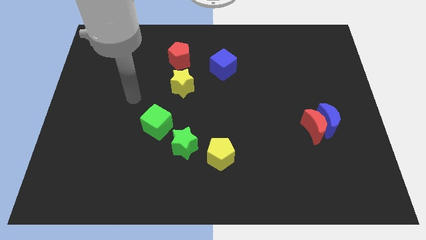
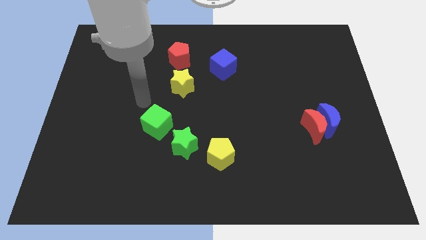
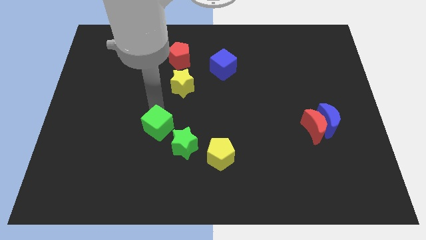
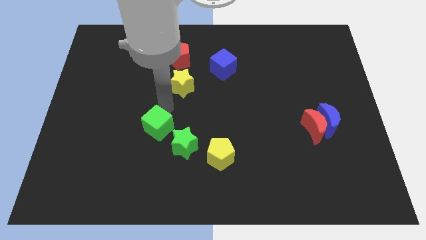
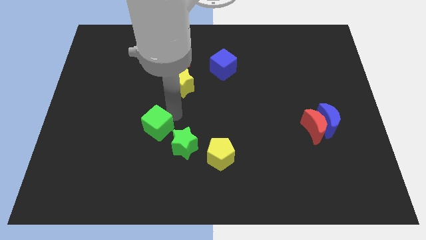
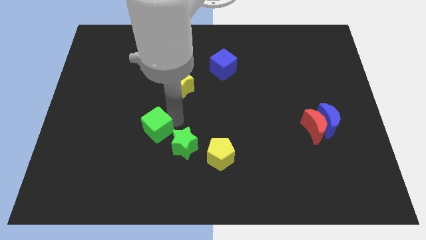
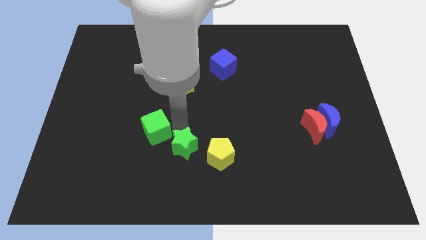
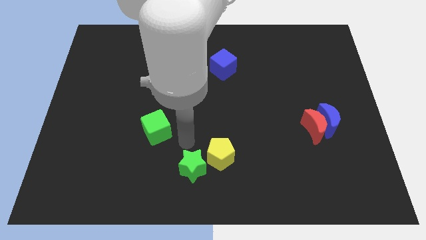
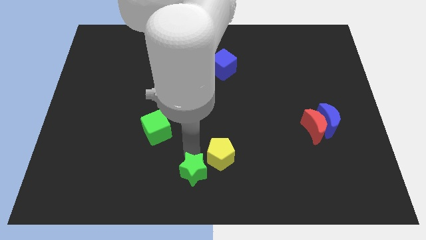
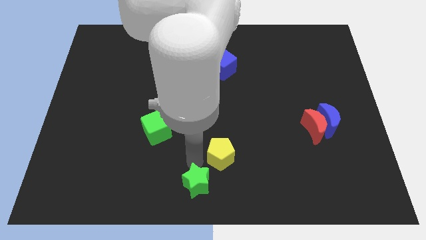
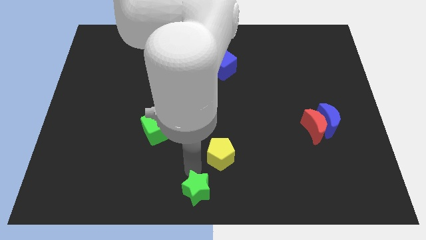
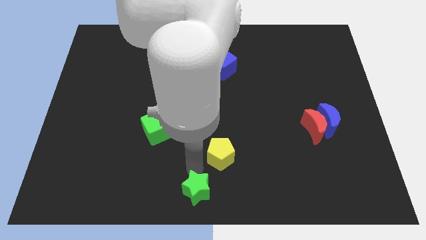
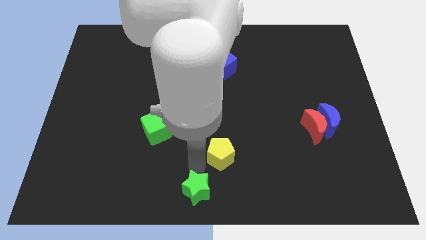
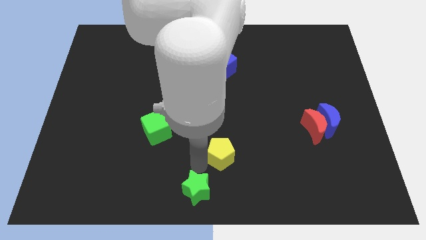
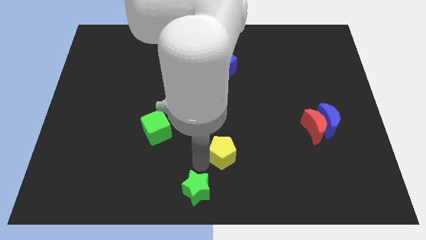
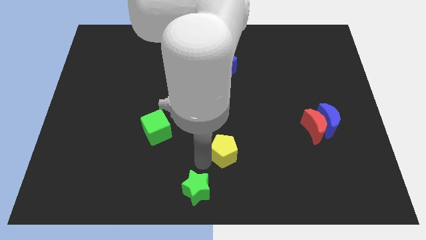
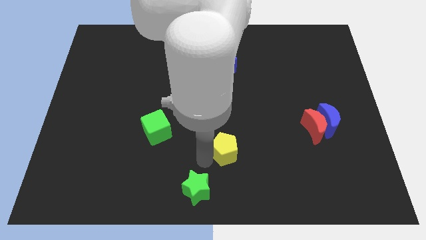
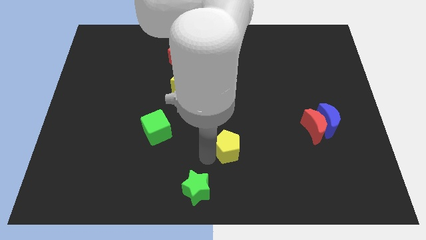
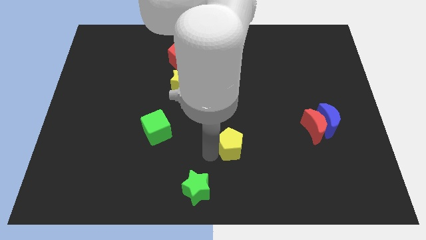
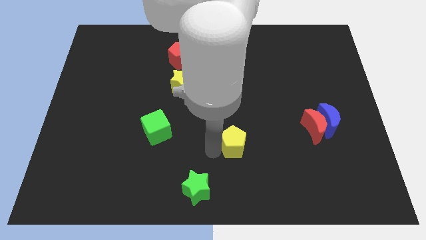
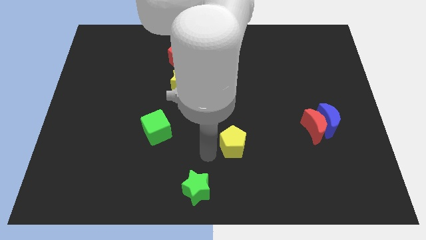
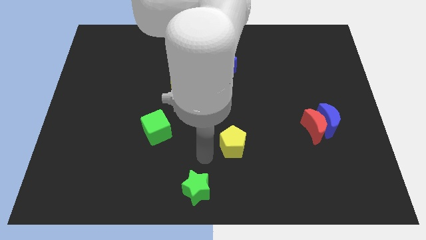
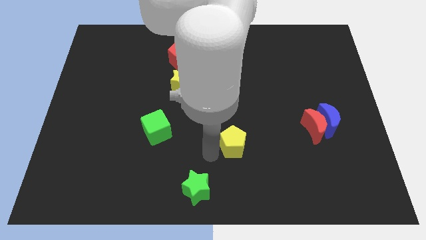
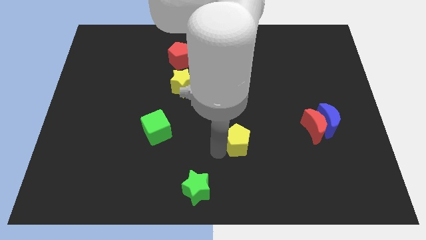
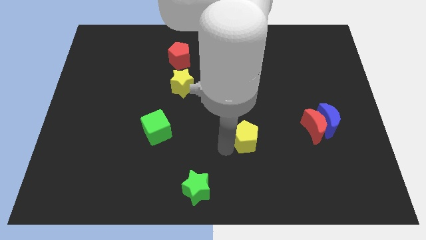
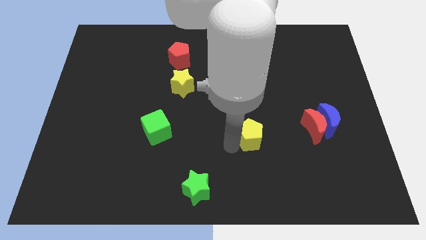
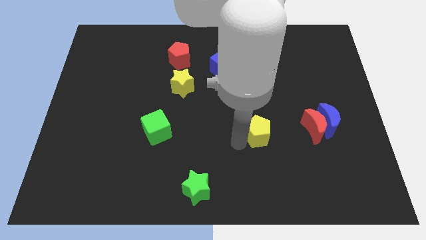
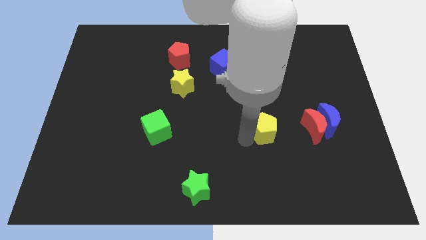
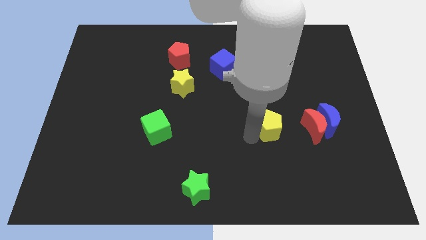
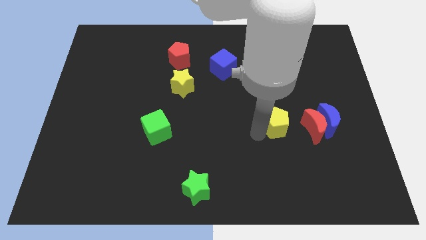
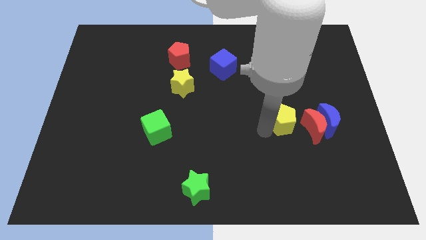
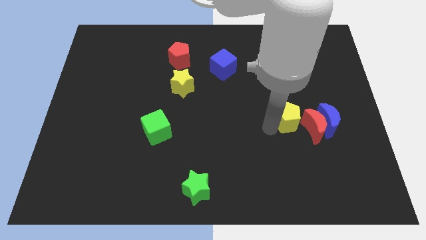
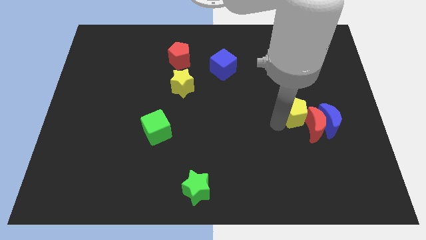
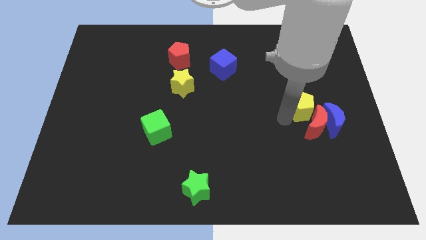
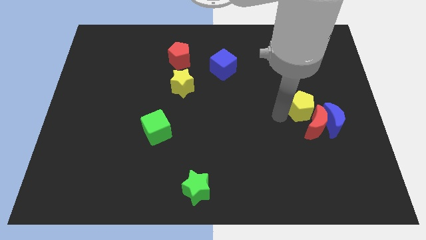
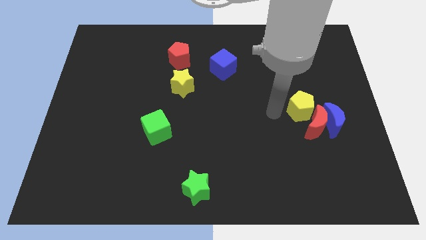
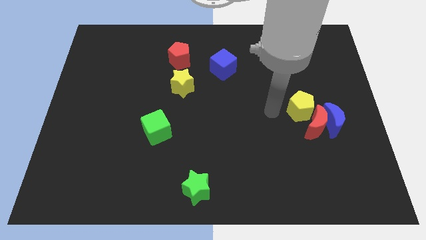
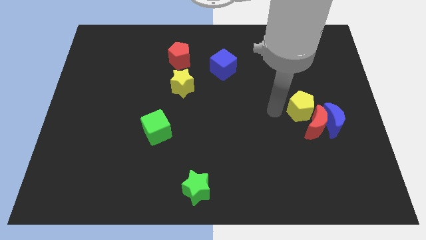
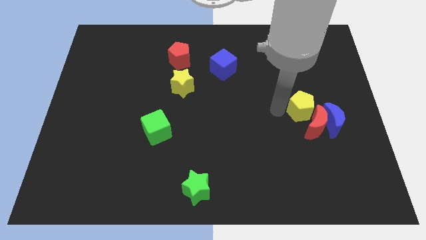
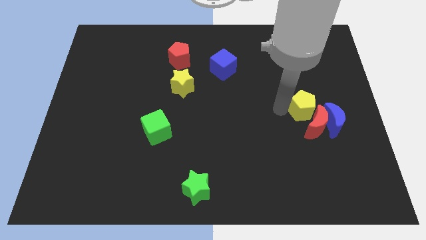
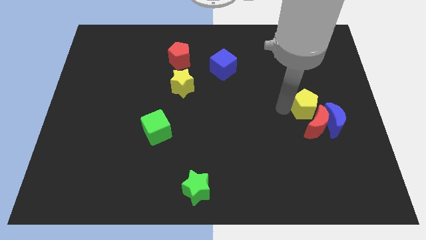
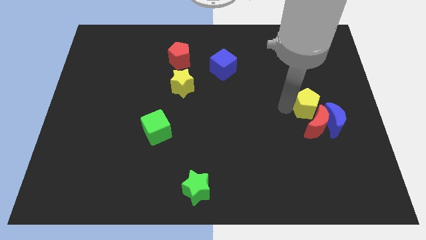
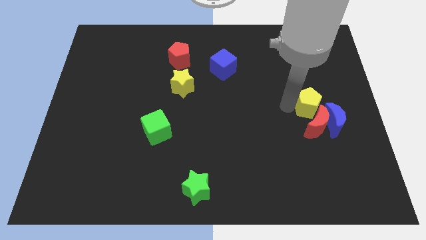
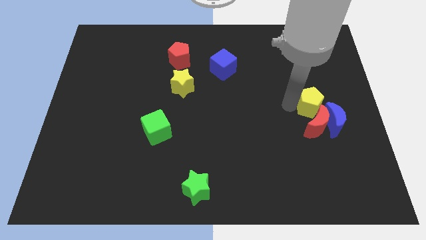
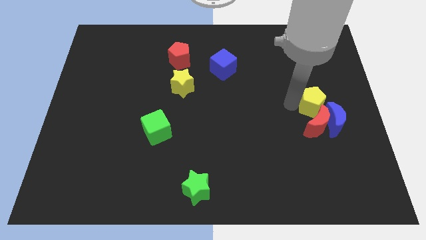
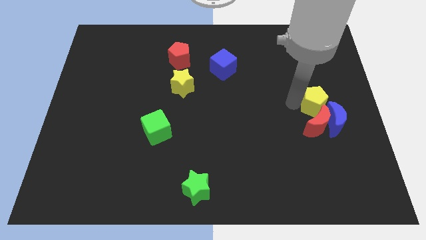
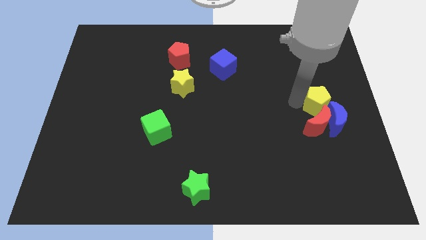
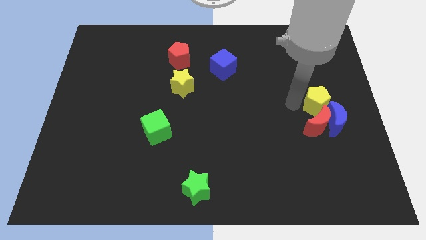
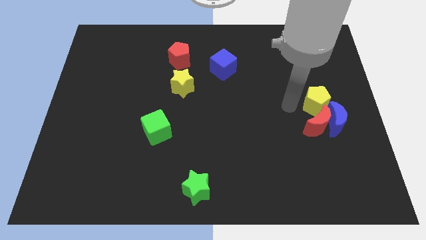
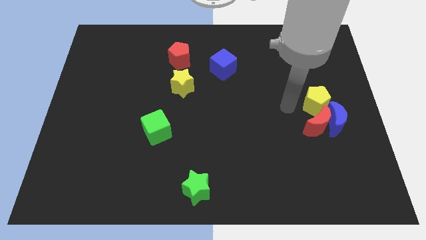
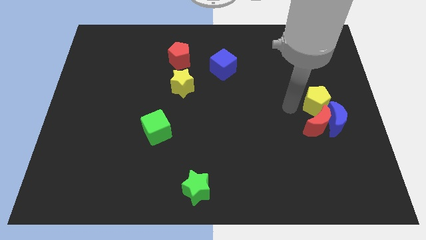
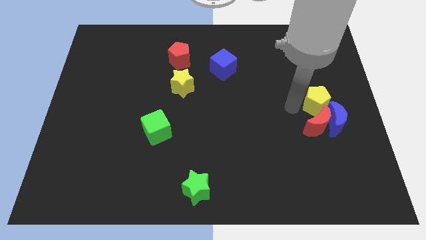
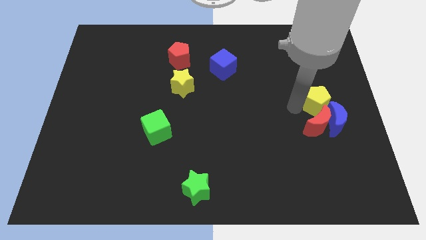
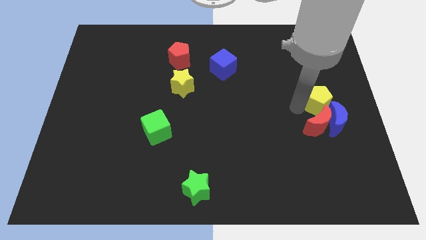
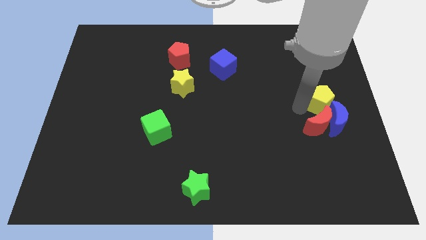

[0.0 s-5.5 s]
put the yellow pentagon to the center right

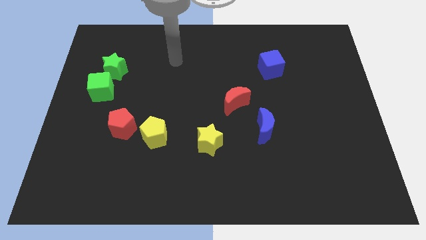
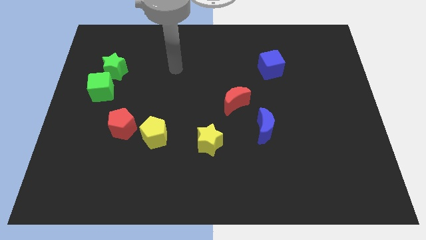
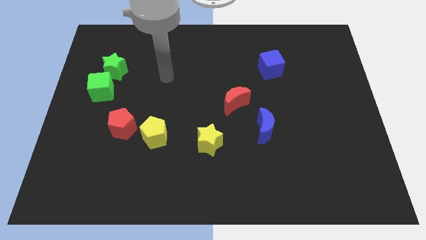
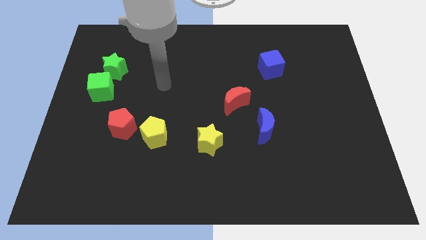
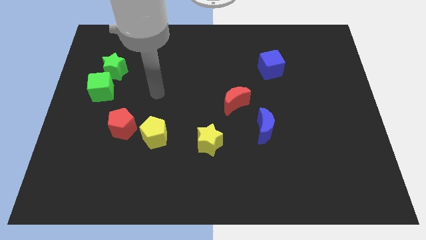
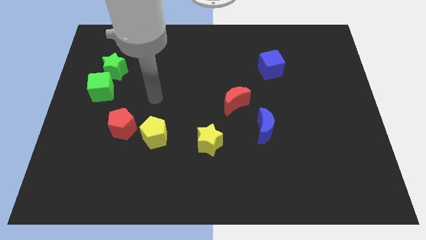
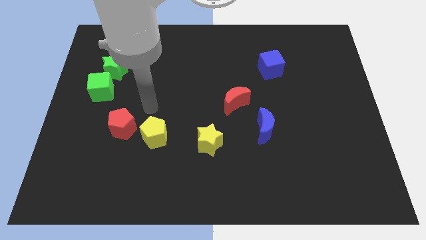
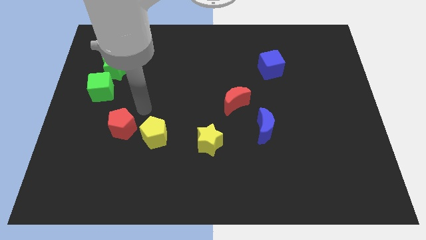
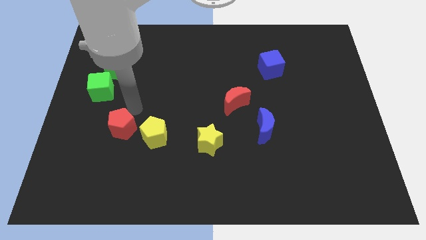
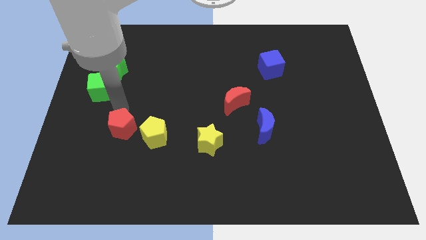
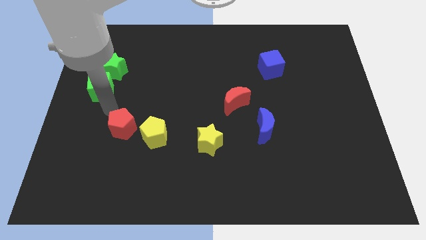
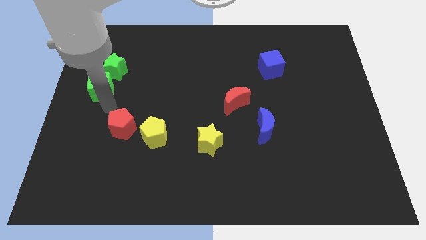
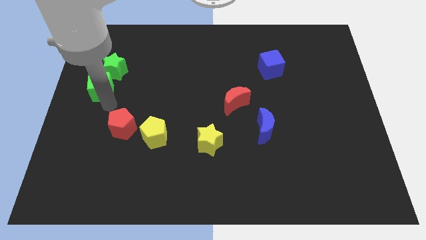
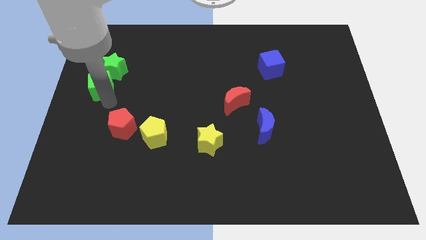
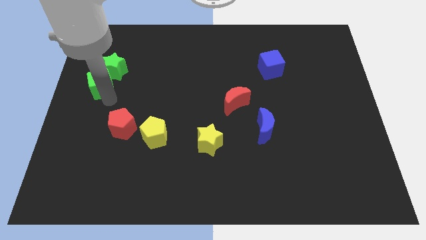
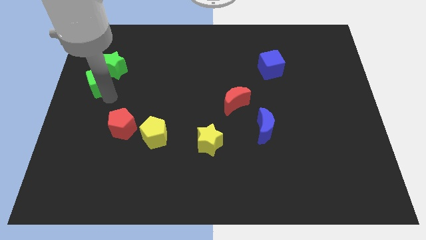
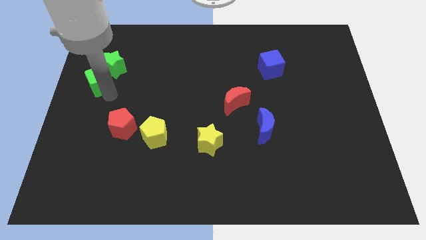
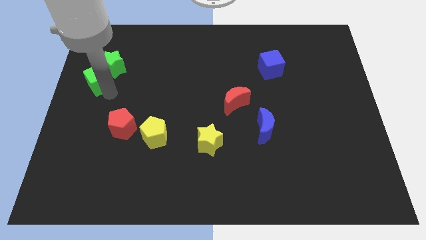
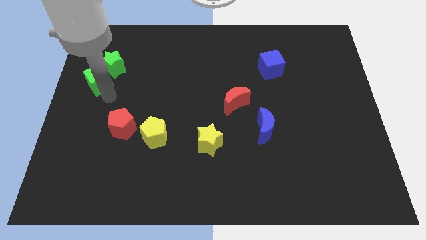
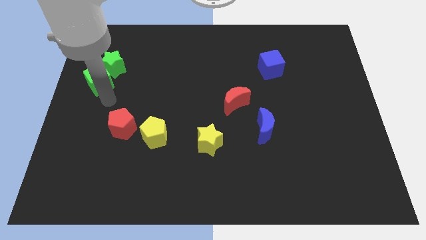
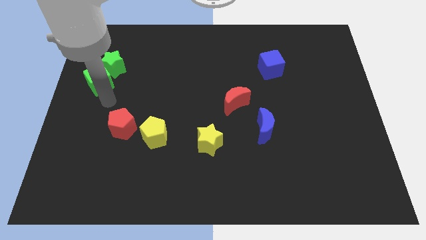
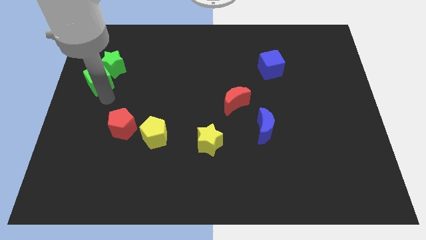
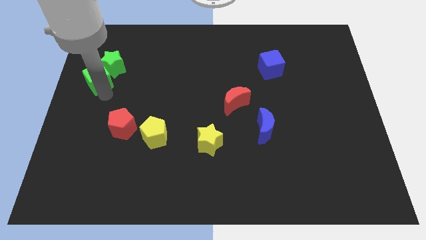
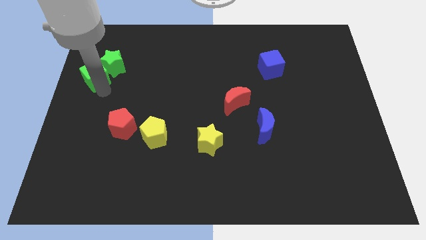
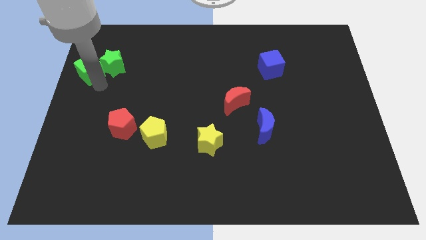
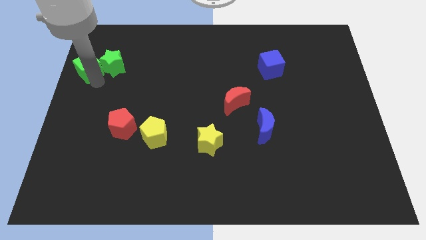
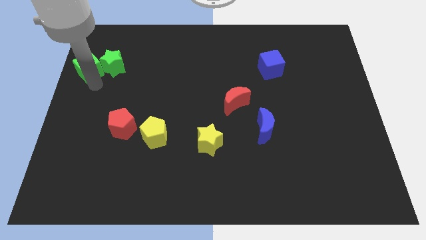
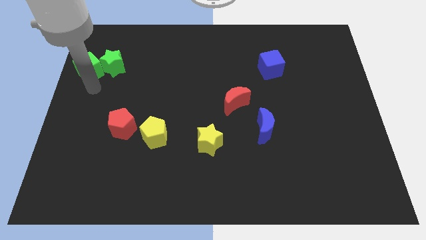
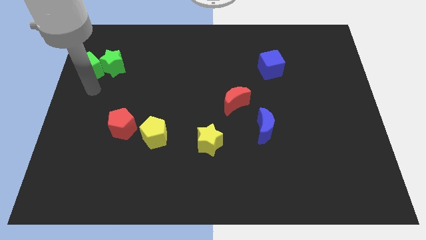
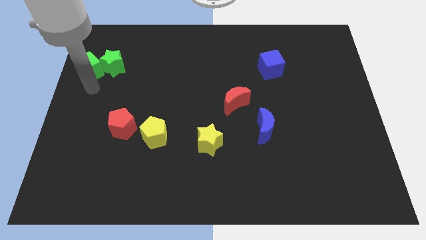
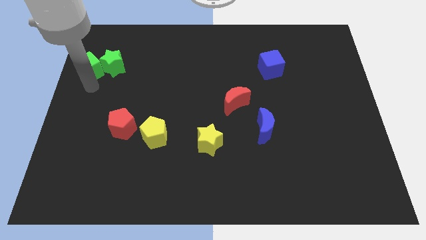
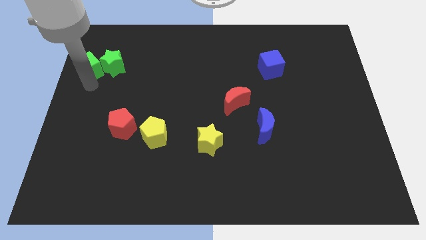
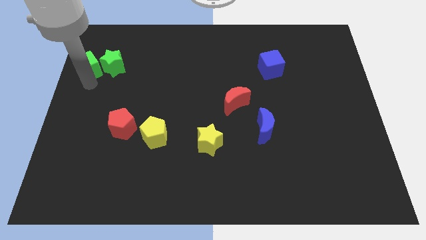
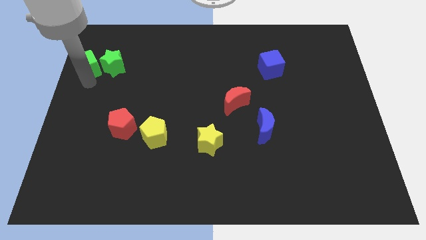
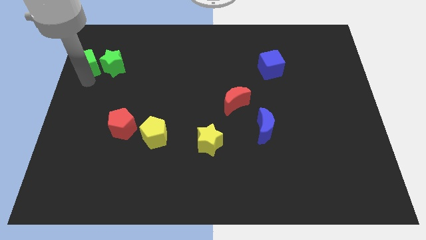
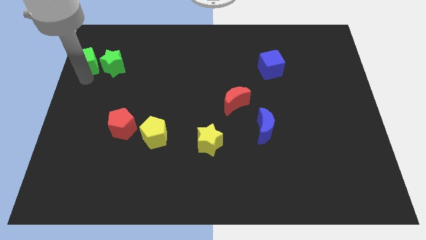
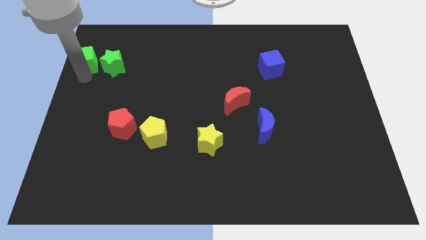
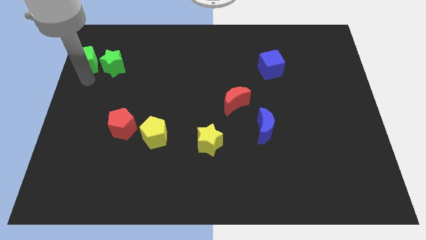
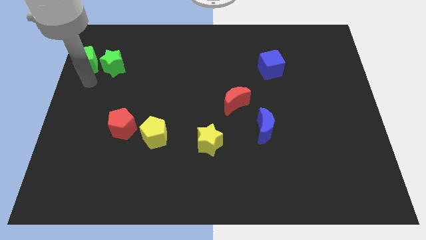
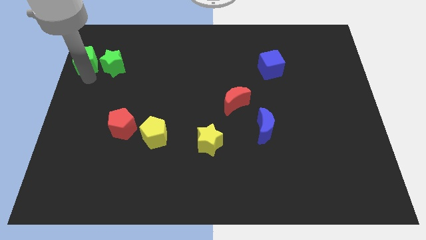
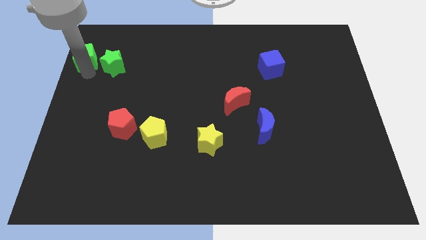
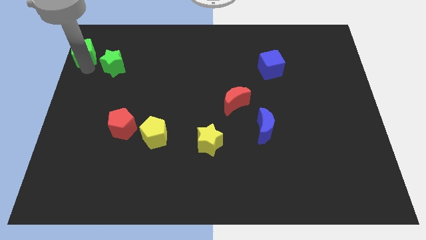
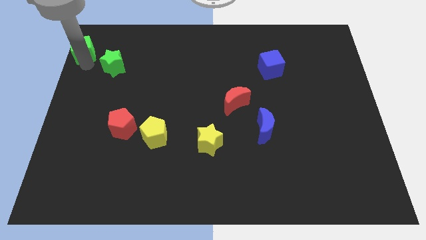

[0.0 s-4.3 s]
move the green cube to the top left
